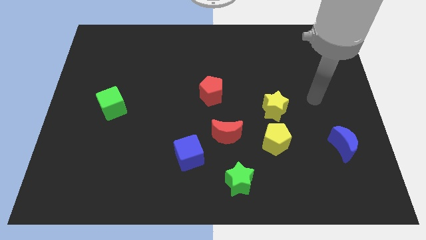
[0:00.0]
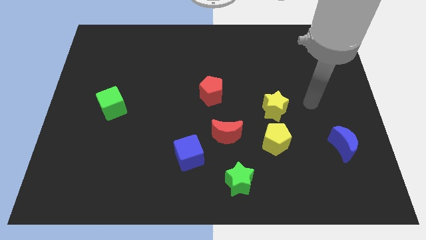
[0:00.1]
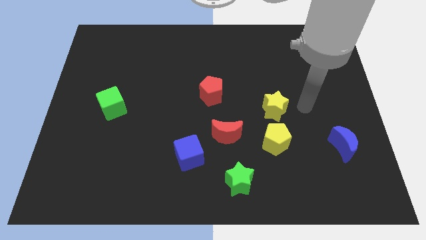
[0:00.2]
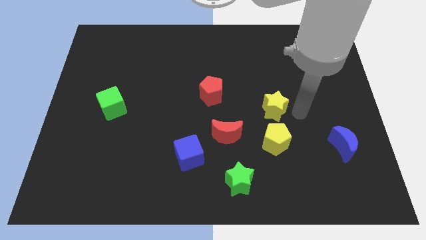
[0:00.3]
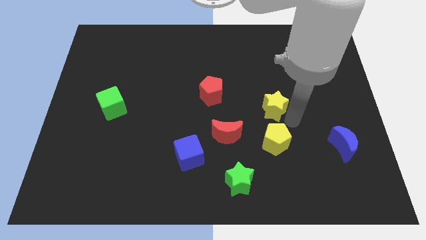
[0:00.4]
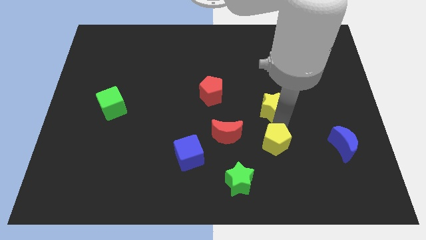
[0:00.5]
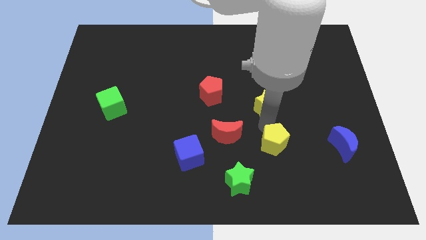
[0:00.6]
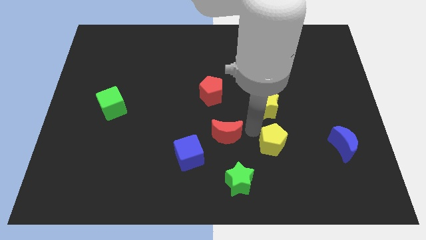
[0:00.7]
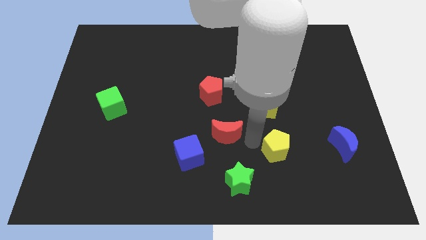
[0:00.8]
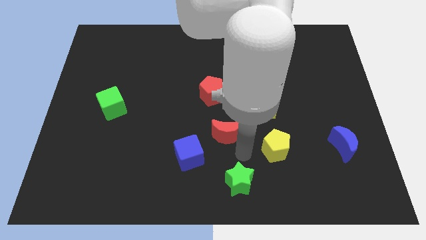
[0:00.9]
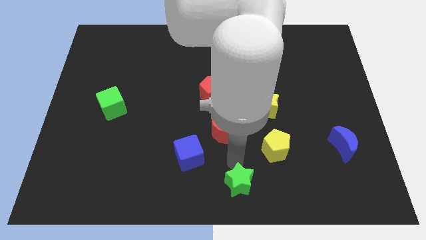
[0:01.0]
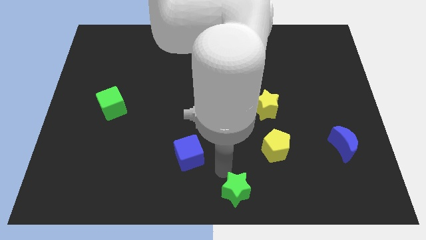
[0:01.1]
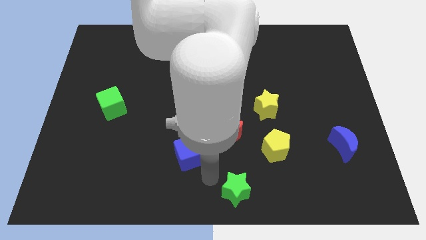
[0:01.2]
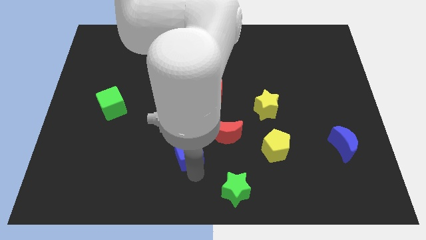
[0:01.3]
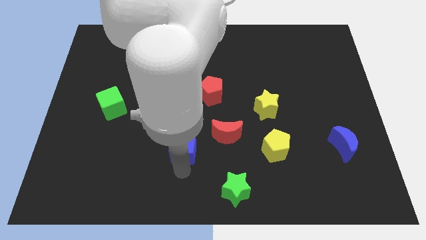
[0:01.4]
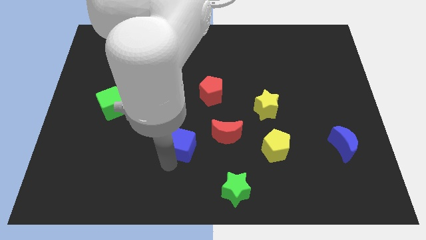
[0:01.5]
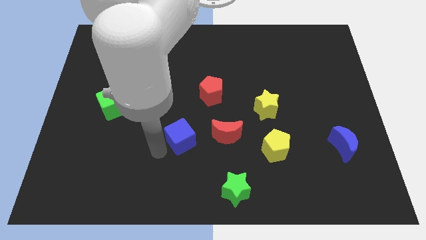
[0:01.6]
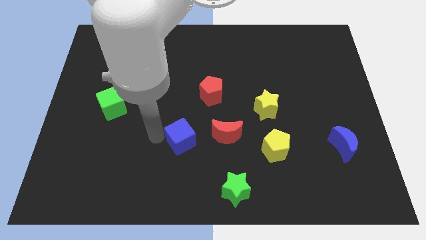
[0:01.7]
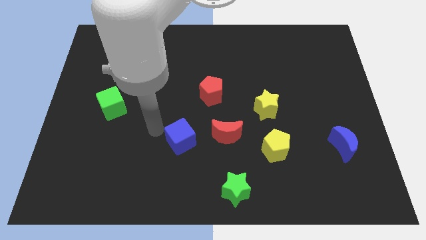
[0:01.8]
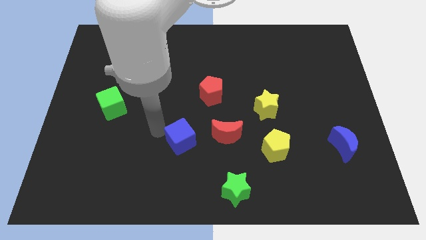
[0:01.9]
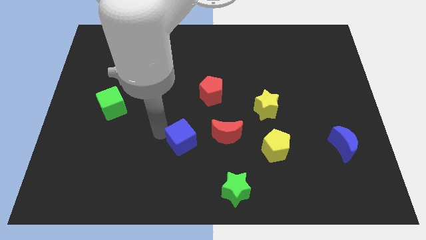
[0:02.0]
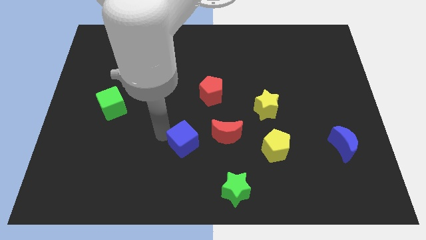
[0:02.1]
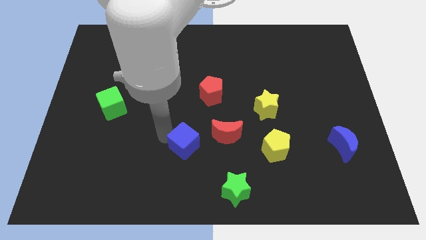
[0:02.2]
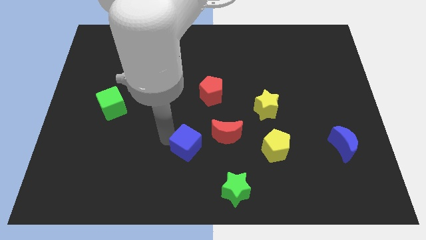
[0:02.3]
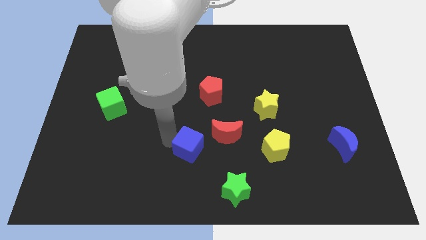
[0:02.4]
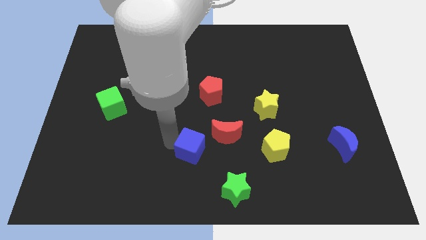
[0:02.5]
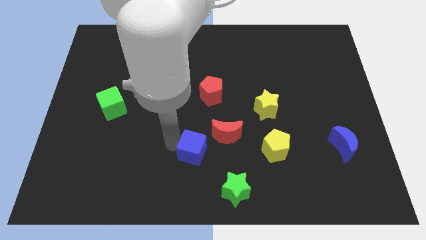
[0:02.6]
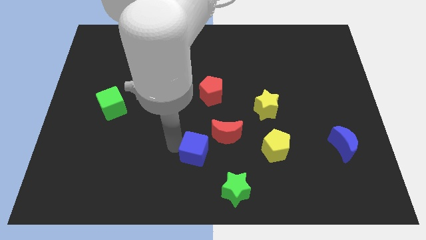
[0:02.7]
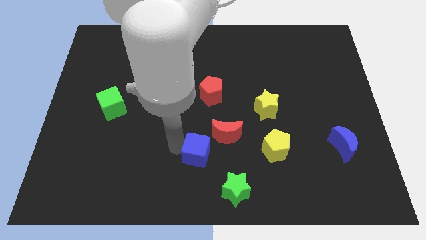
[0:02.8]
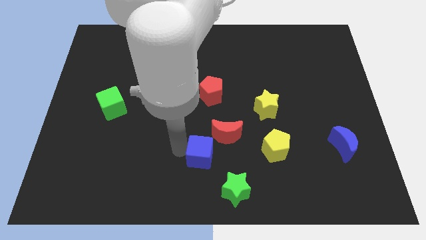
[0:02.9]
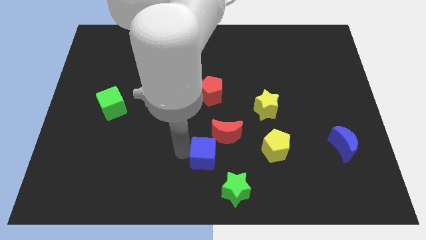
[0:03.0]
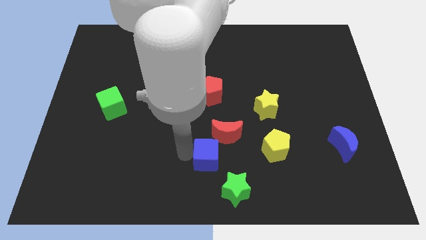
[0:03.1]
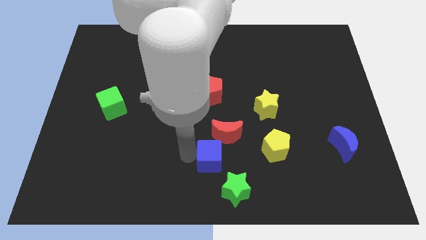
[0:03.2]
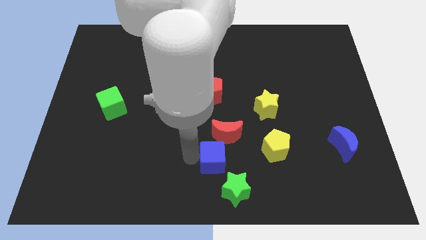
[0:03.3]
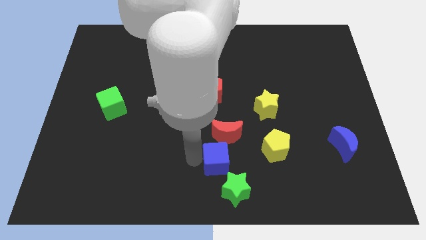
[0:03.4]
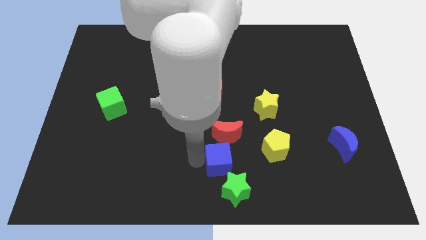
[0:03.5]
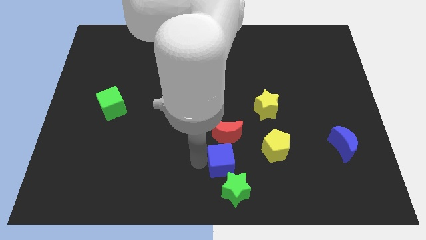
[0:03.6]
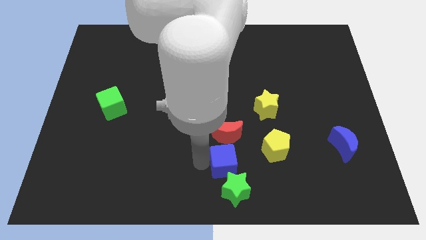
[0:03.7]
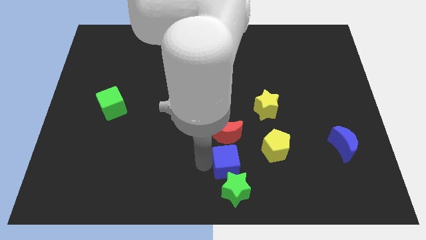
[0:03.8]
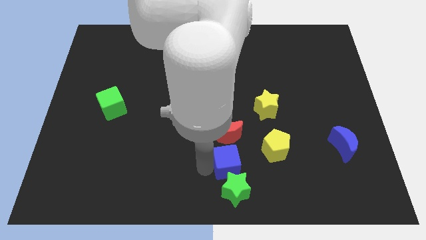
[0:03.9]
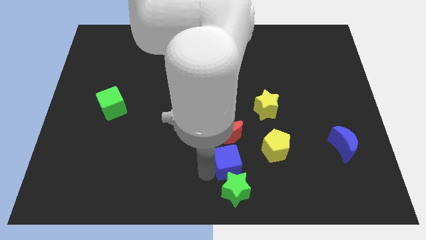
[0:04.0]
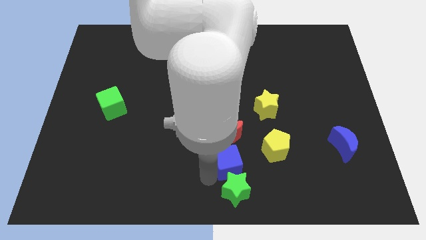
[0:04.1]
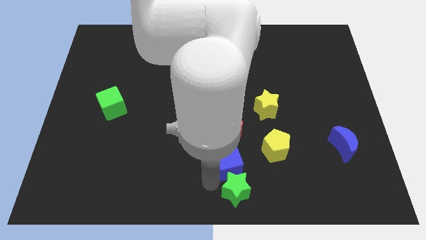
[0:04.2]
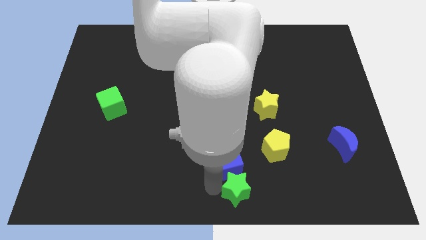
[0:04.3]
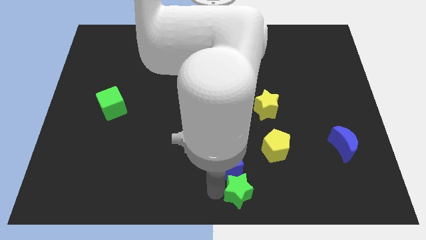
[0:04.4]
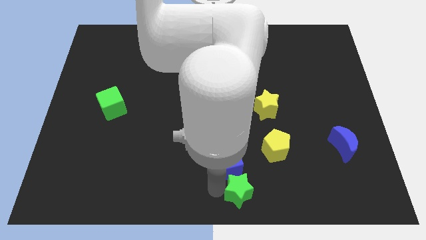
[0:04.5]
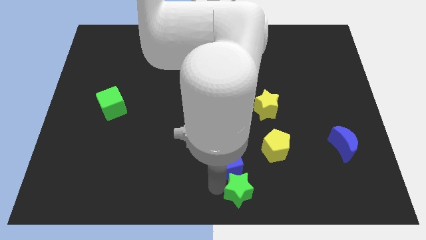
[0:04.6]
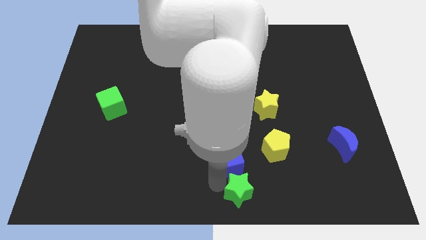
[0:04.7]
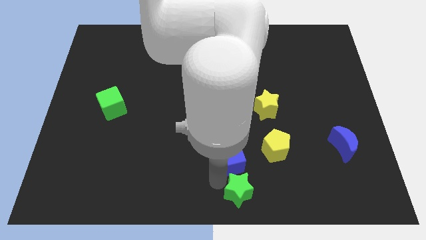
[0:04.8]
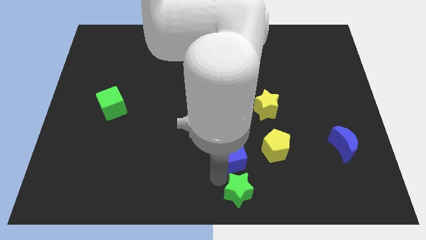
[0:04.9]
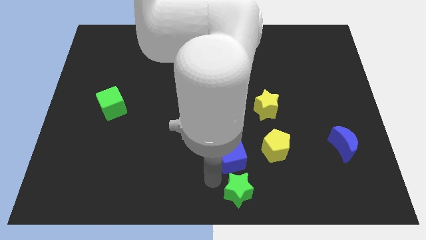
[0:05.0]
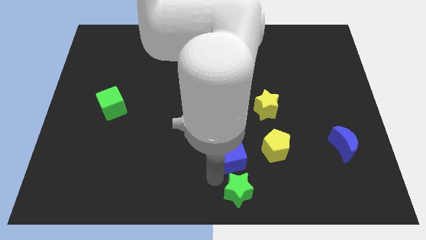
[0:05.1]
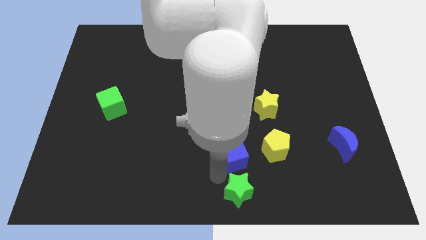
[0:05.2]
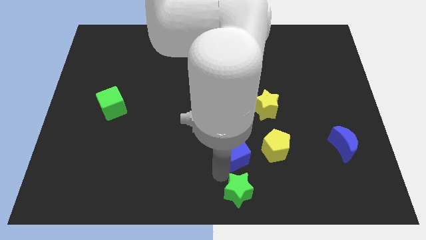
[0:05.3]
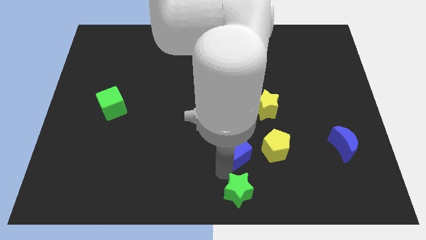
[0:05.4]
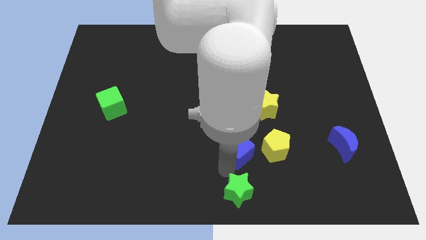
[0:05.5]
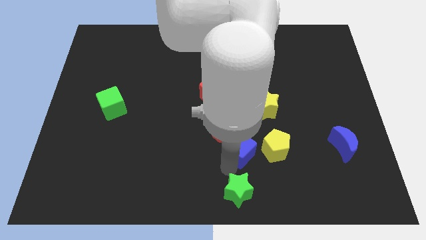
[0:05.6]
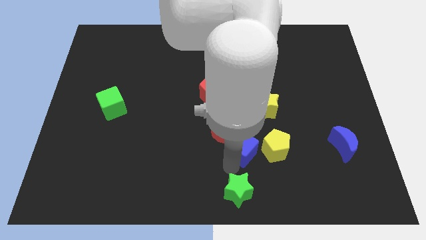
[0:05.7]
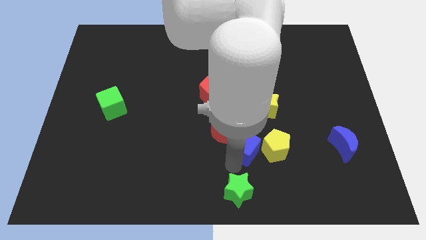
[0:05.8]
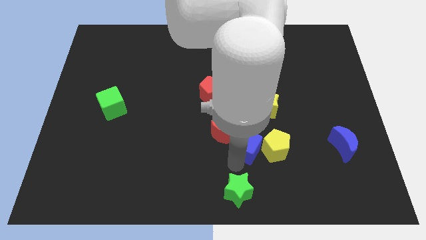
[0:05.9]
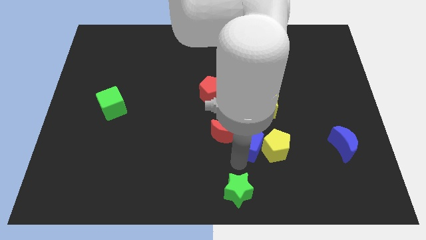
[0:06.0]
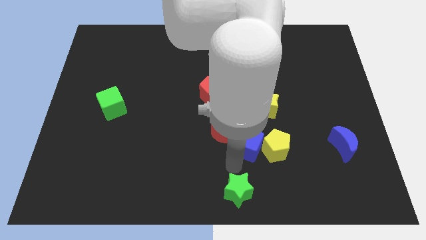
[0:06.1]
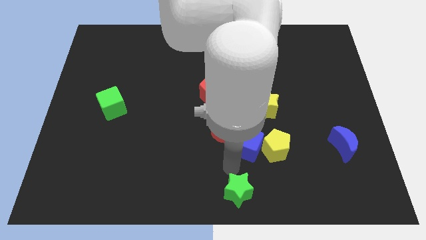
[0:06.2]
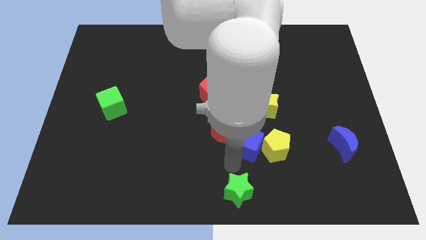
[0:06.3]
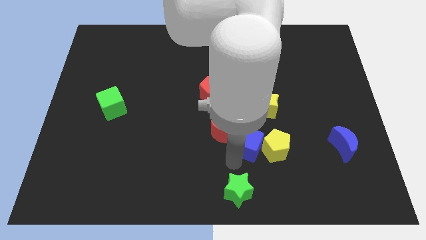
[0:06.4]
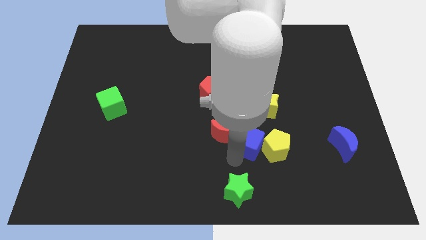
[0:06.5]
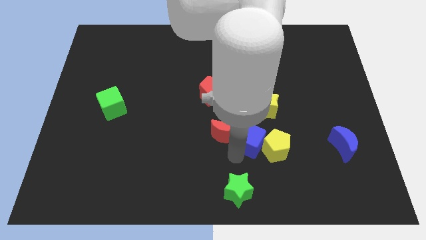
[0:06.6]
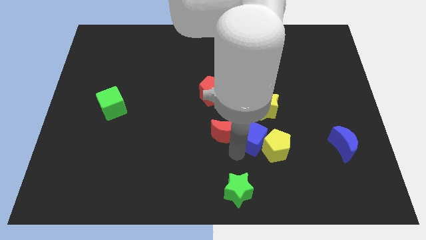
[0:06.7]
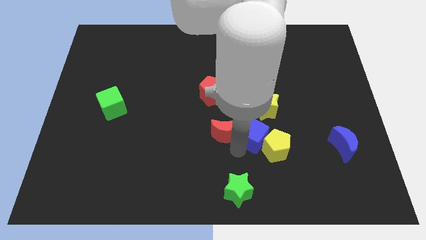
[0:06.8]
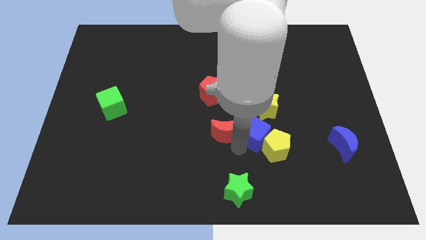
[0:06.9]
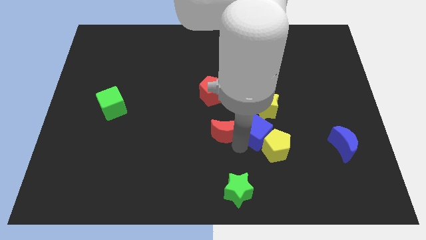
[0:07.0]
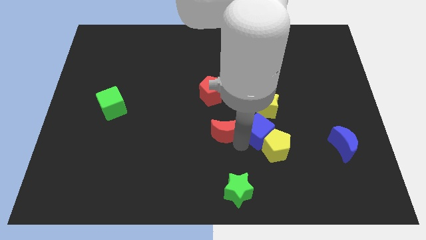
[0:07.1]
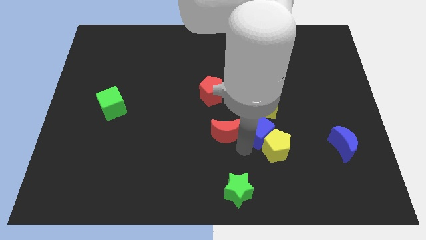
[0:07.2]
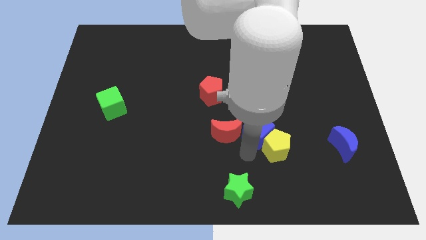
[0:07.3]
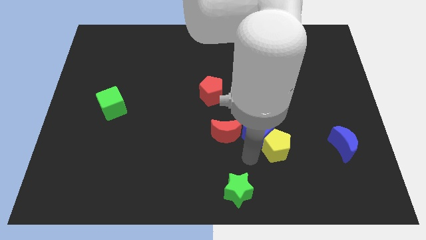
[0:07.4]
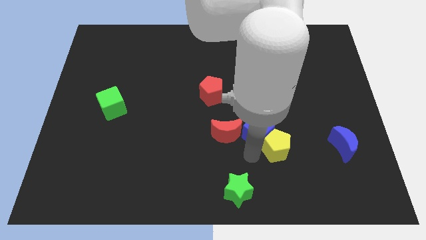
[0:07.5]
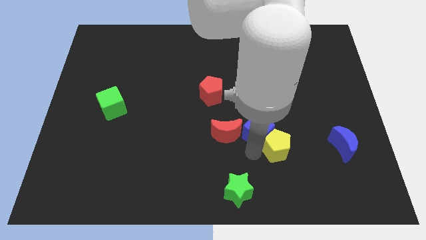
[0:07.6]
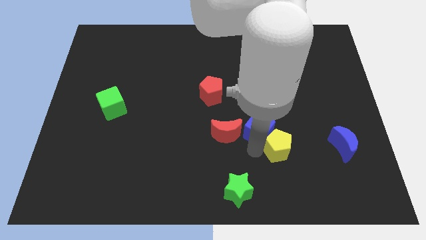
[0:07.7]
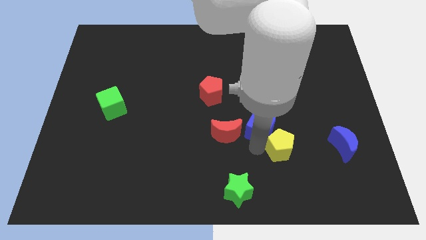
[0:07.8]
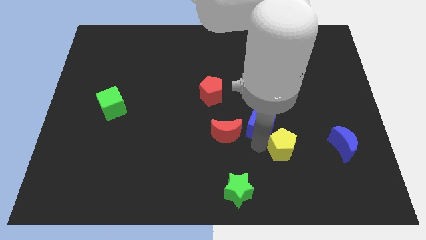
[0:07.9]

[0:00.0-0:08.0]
slide the blue cube next to the yellow star
